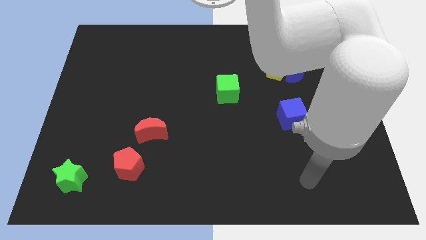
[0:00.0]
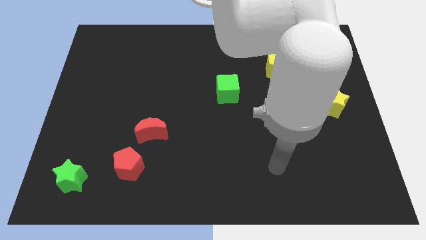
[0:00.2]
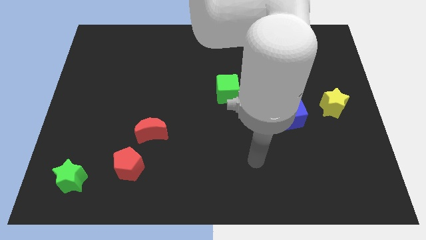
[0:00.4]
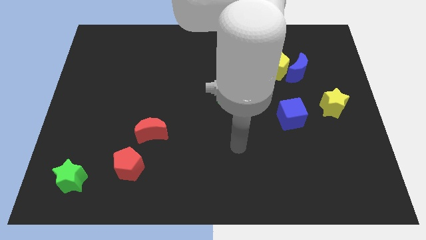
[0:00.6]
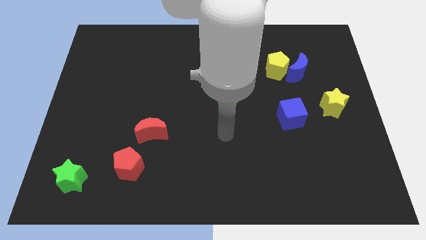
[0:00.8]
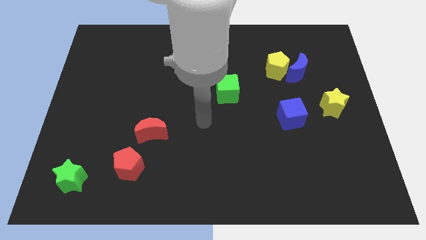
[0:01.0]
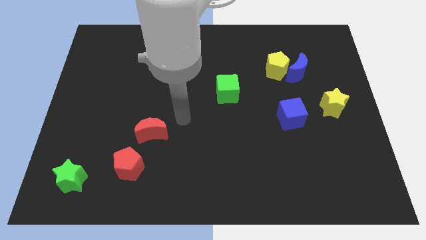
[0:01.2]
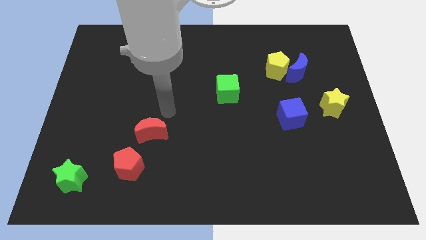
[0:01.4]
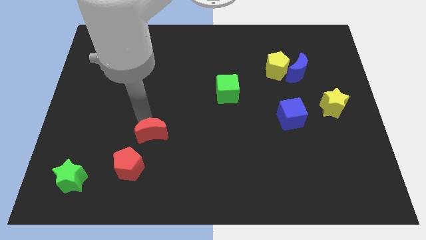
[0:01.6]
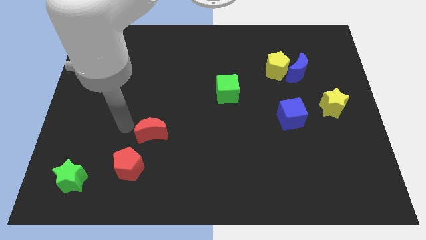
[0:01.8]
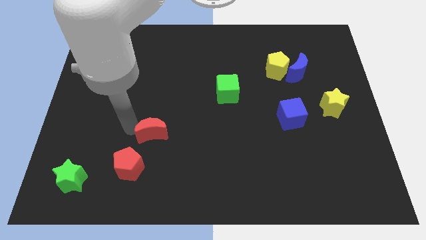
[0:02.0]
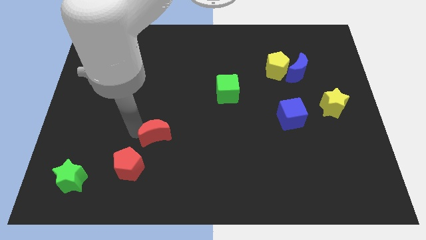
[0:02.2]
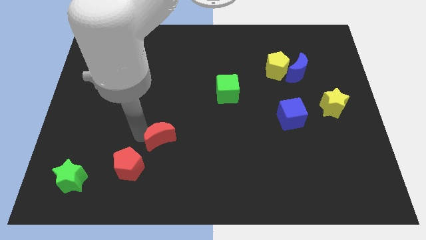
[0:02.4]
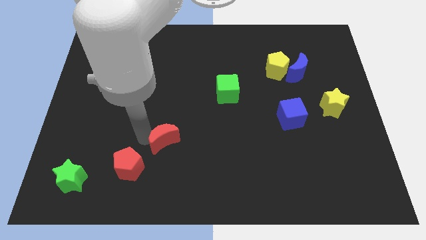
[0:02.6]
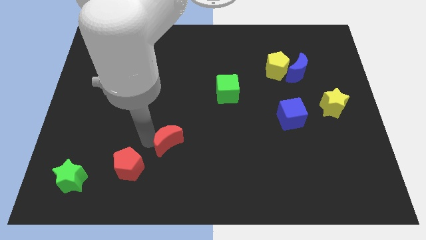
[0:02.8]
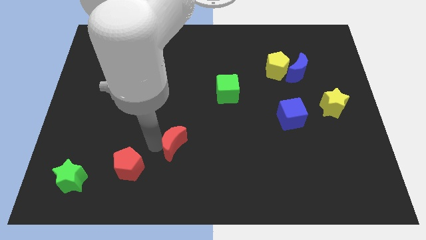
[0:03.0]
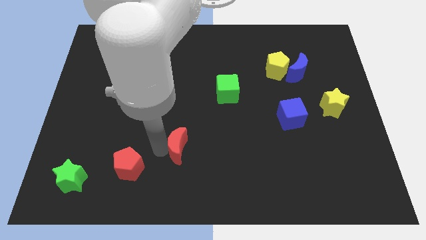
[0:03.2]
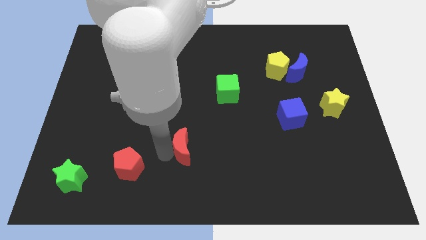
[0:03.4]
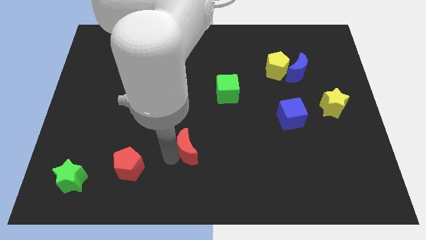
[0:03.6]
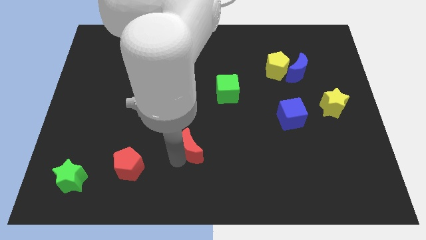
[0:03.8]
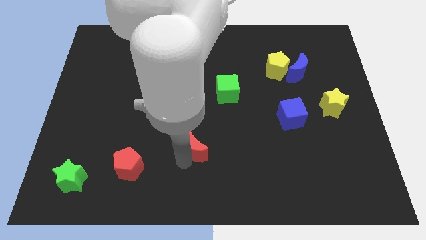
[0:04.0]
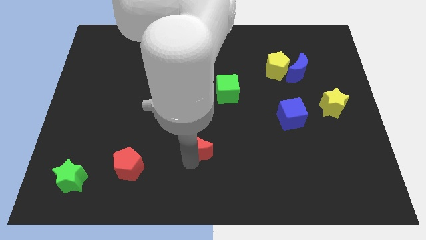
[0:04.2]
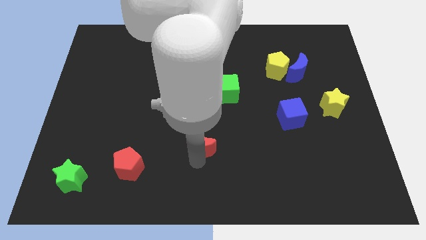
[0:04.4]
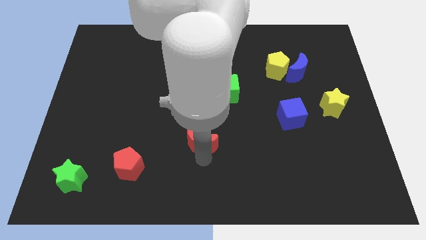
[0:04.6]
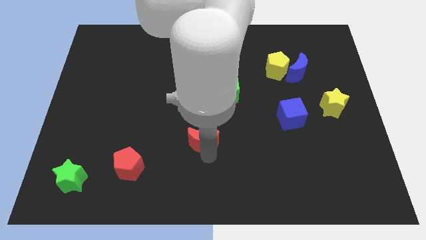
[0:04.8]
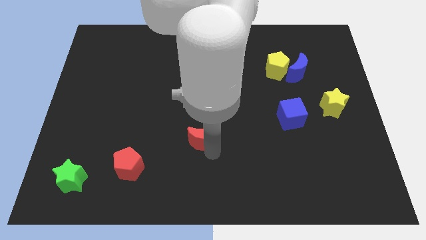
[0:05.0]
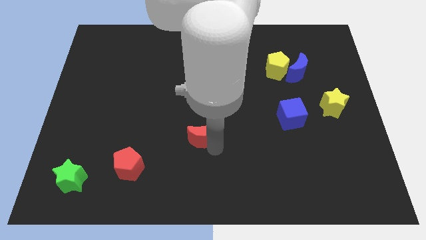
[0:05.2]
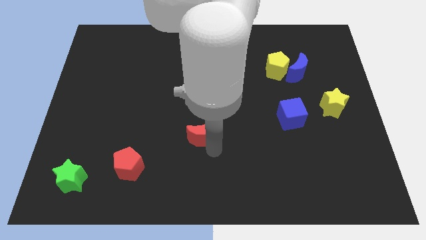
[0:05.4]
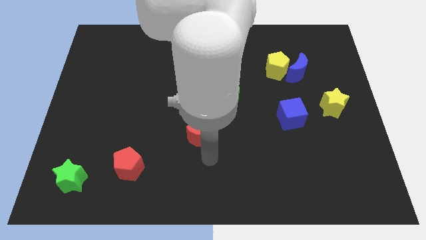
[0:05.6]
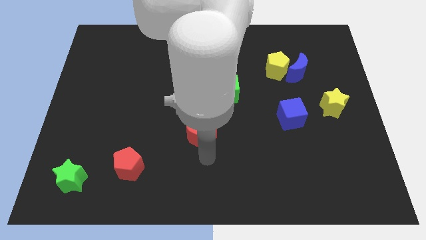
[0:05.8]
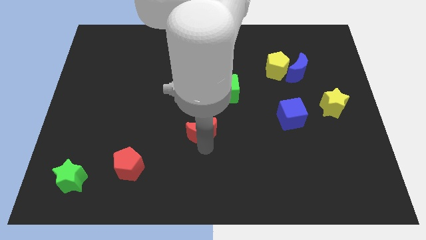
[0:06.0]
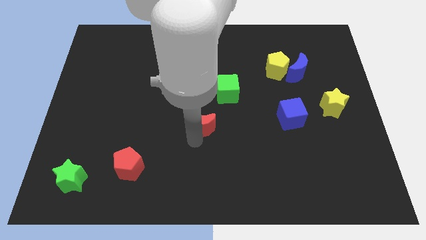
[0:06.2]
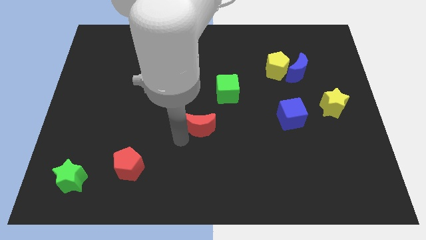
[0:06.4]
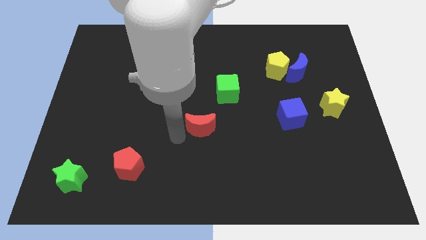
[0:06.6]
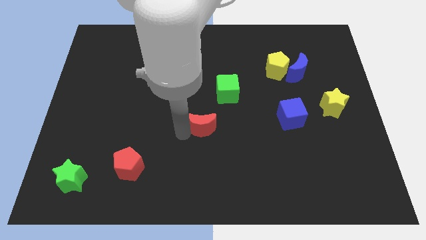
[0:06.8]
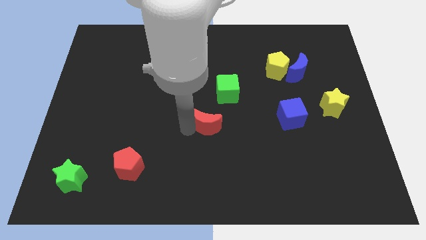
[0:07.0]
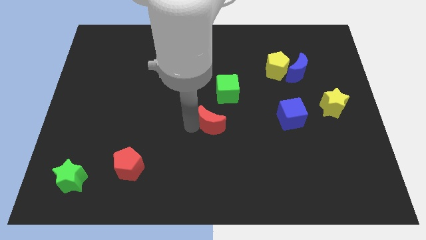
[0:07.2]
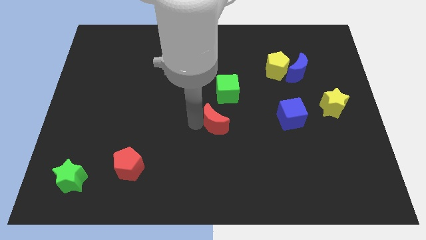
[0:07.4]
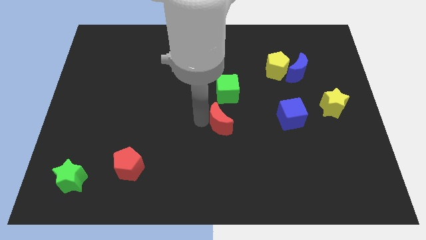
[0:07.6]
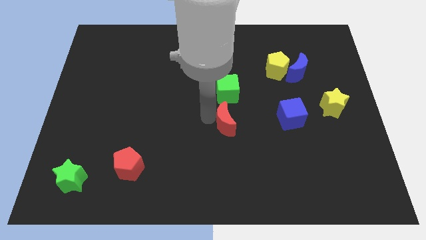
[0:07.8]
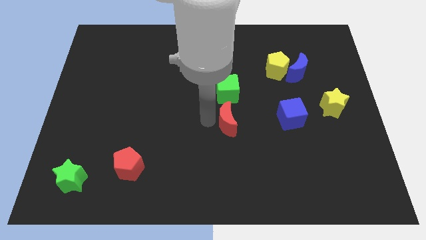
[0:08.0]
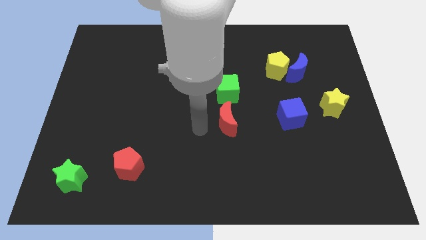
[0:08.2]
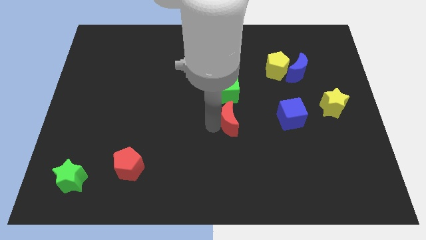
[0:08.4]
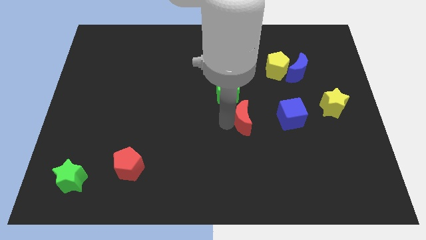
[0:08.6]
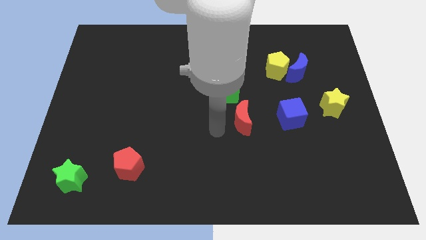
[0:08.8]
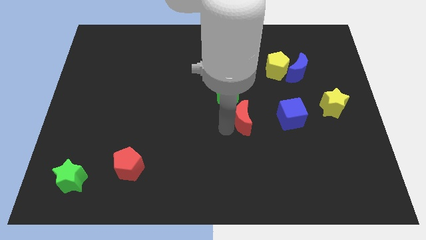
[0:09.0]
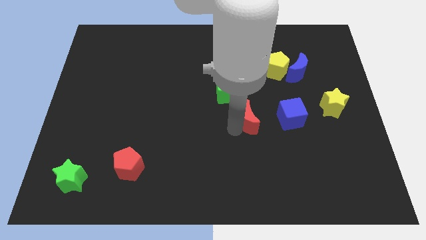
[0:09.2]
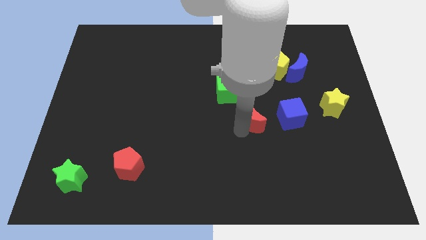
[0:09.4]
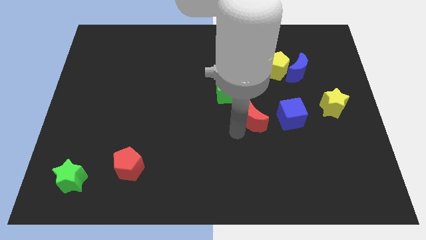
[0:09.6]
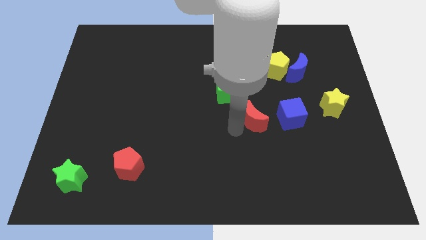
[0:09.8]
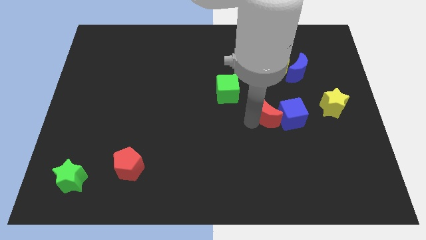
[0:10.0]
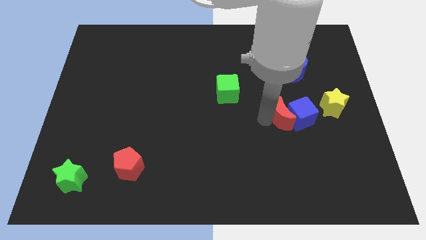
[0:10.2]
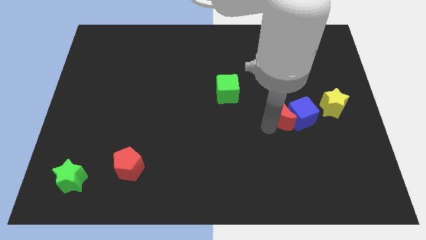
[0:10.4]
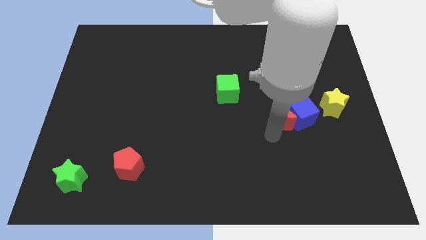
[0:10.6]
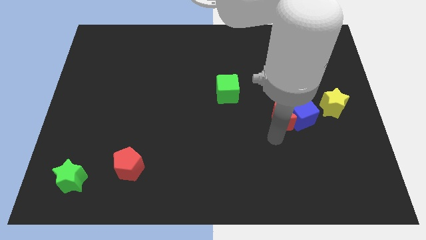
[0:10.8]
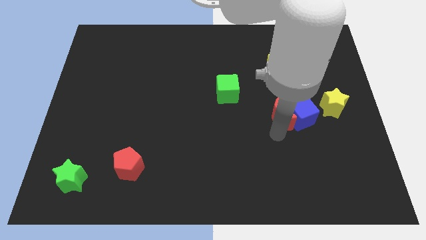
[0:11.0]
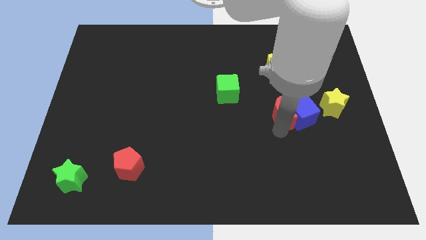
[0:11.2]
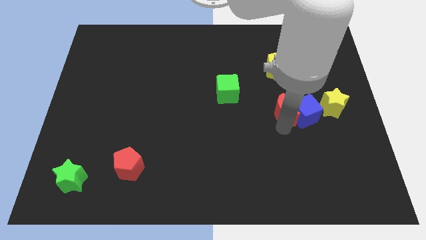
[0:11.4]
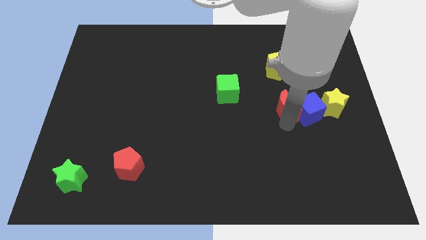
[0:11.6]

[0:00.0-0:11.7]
move the red moon to the bottom side of the blue moon

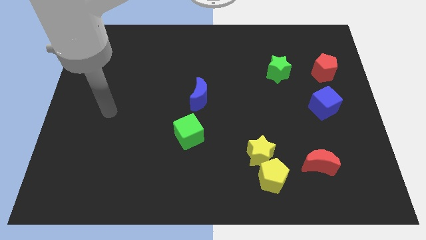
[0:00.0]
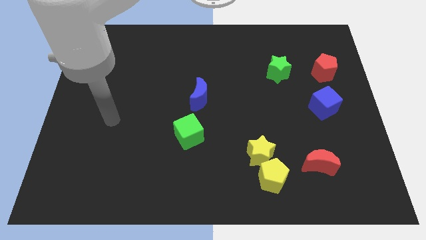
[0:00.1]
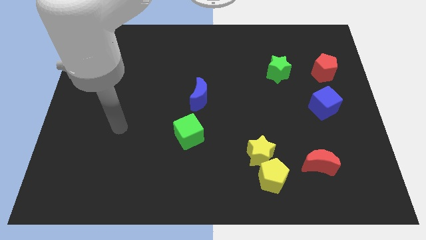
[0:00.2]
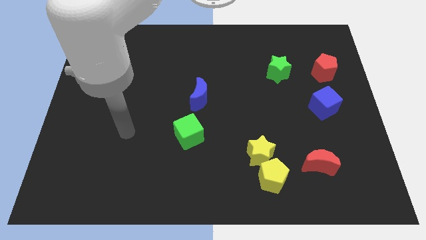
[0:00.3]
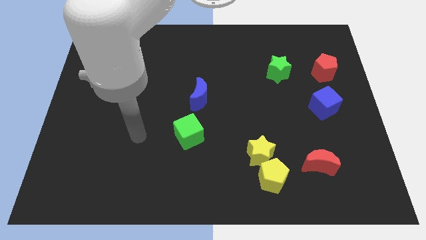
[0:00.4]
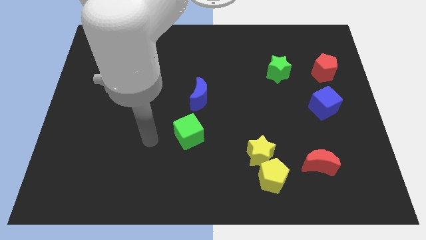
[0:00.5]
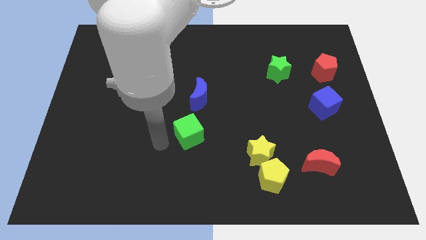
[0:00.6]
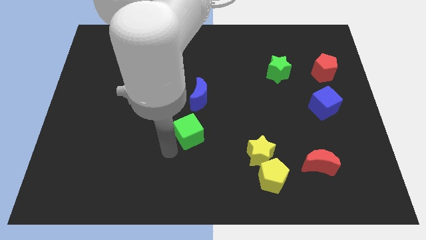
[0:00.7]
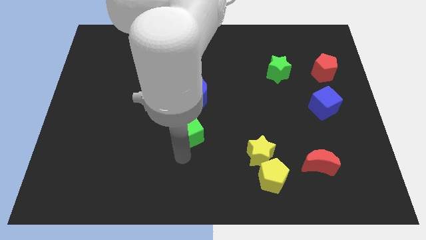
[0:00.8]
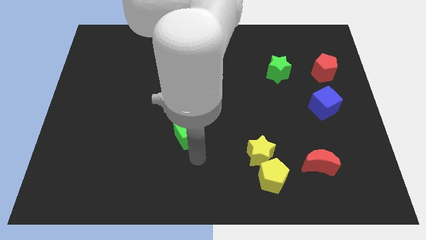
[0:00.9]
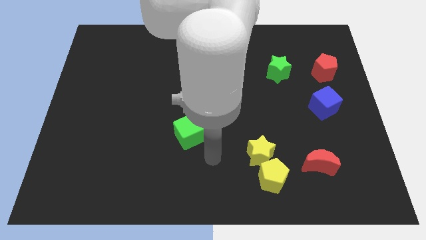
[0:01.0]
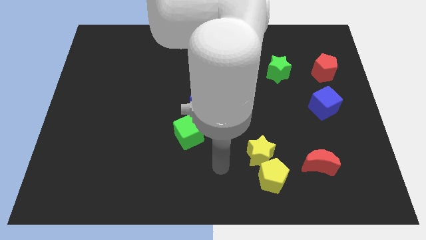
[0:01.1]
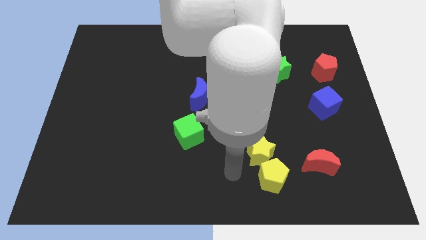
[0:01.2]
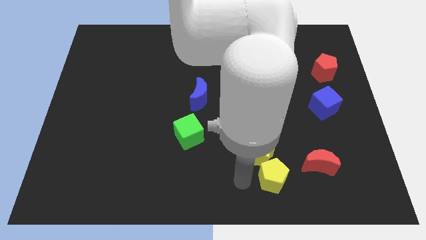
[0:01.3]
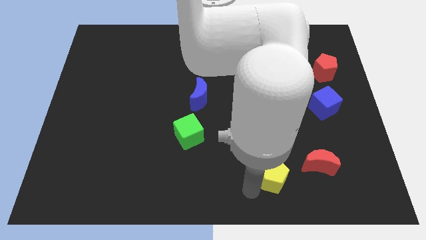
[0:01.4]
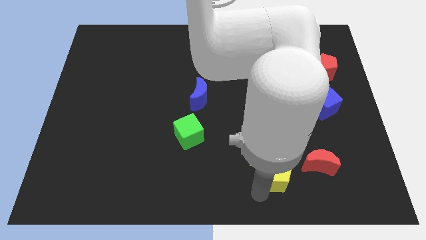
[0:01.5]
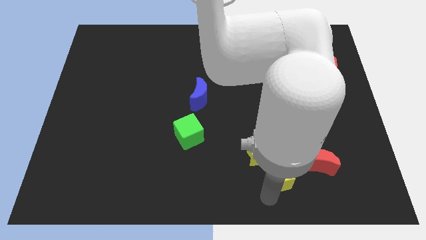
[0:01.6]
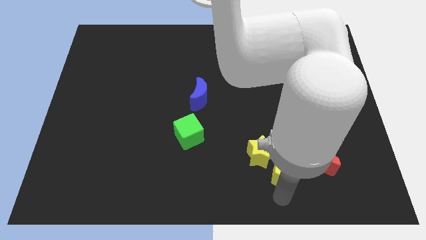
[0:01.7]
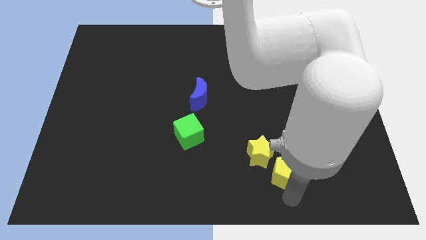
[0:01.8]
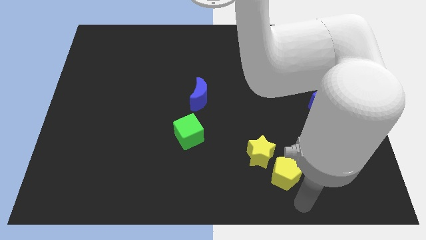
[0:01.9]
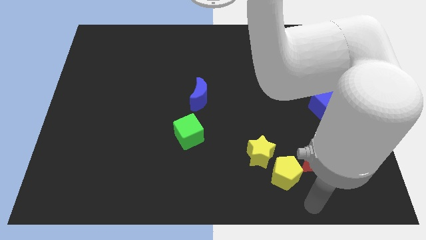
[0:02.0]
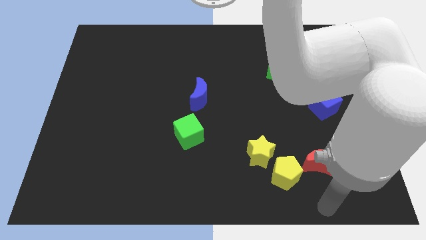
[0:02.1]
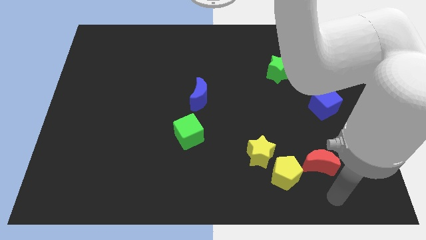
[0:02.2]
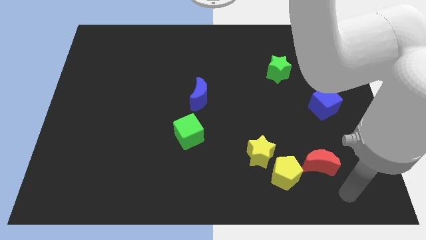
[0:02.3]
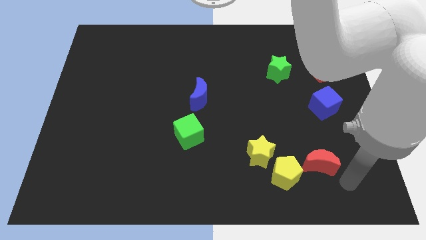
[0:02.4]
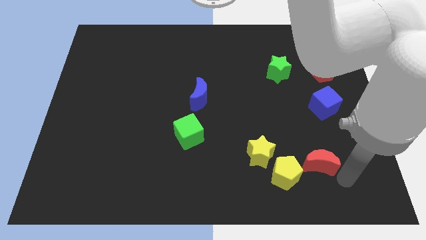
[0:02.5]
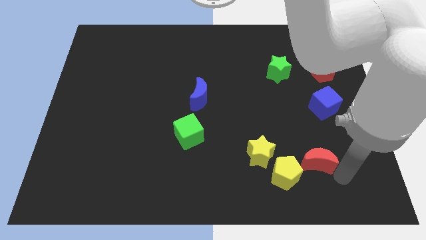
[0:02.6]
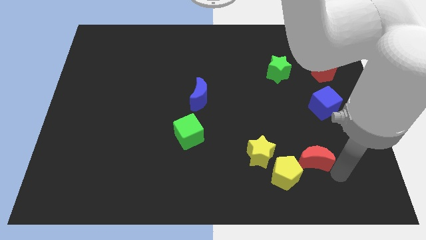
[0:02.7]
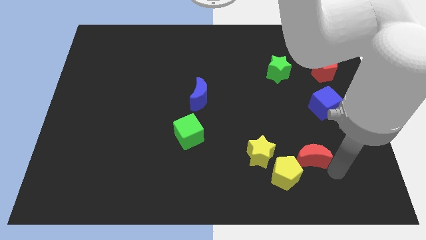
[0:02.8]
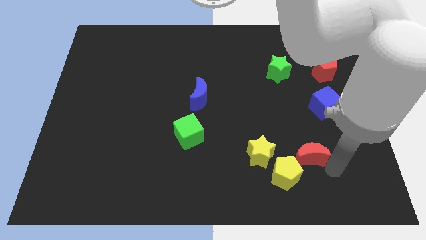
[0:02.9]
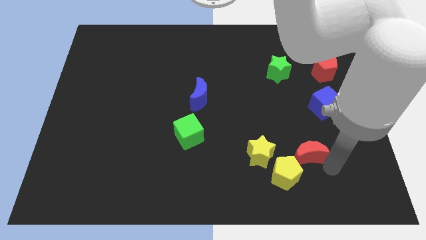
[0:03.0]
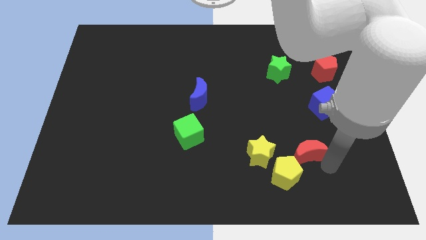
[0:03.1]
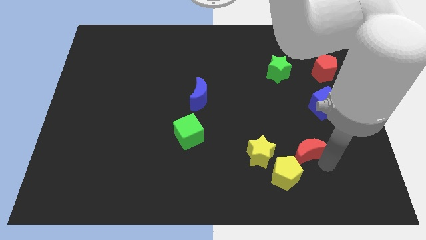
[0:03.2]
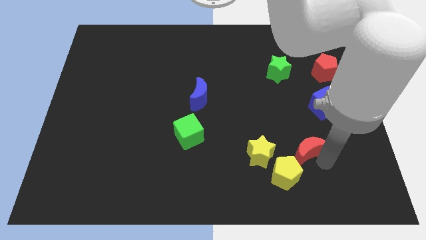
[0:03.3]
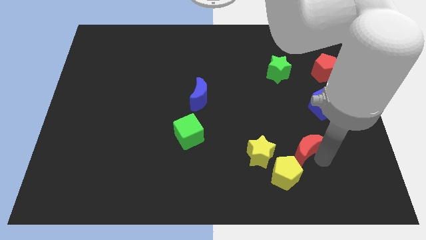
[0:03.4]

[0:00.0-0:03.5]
move the red moon to the top side of the yellow pentagon
